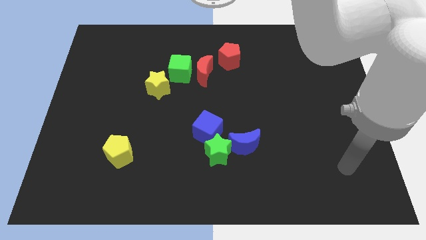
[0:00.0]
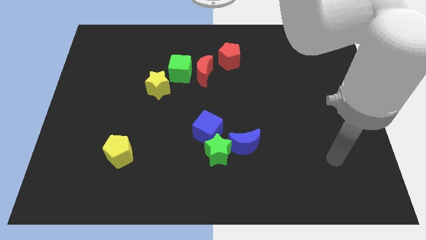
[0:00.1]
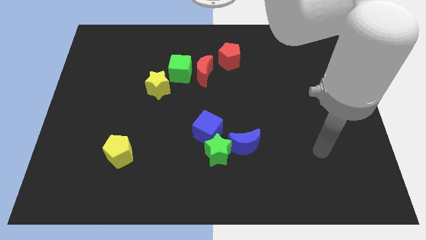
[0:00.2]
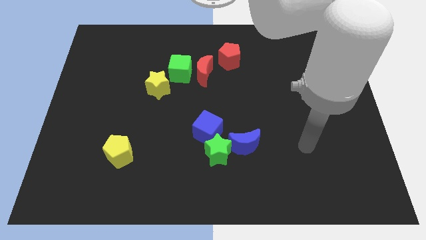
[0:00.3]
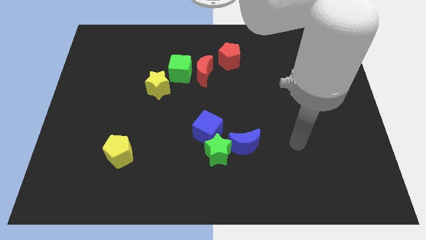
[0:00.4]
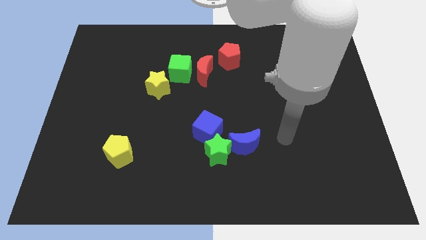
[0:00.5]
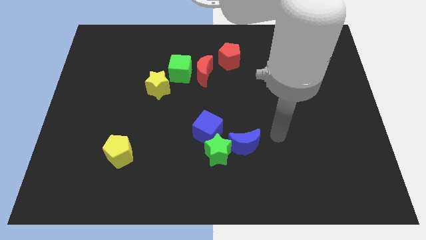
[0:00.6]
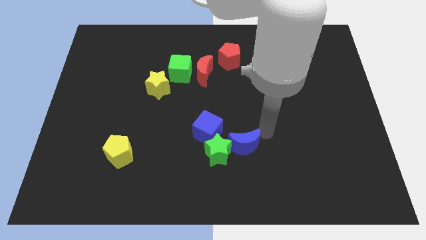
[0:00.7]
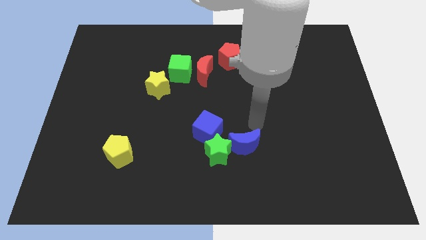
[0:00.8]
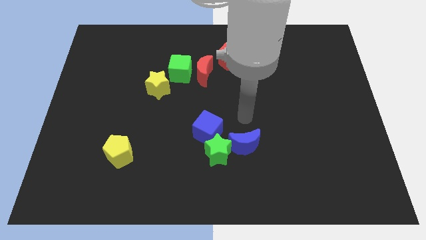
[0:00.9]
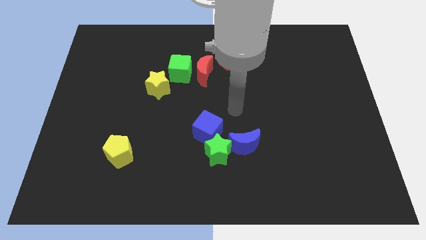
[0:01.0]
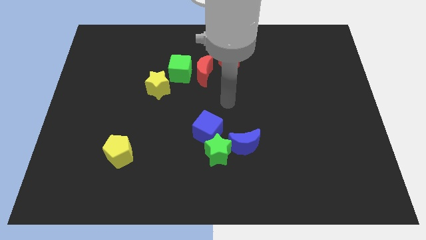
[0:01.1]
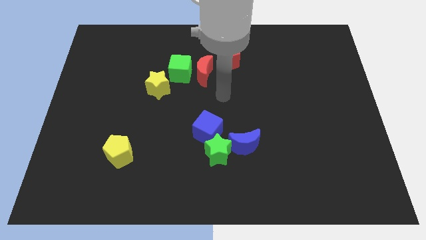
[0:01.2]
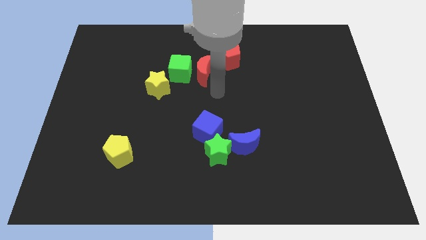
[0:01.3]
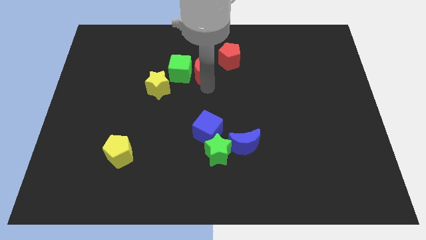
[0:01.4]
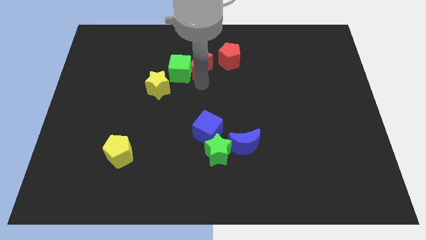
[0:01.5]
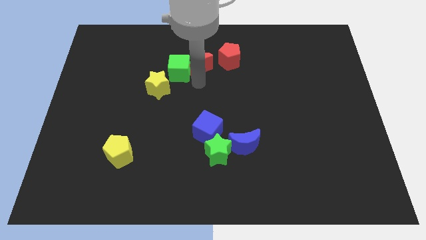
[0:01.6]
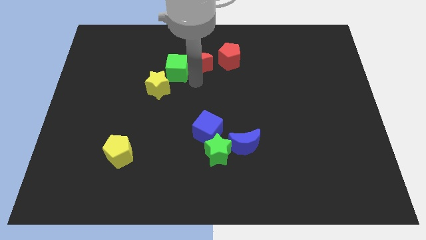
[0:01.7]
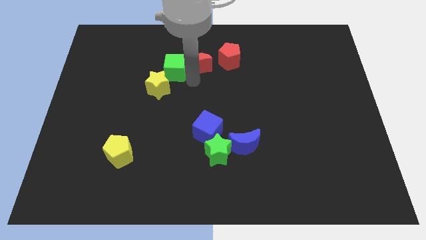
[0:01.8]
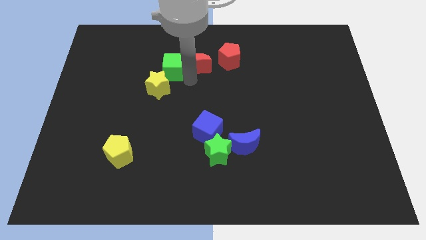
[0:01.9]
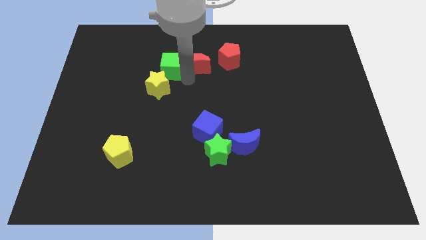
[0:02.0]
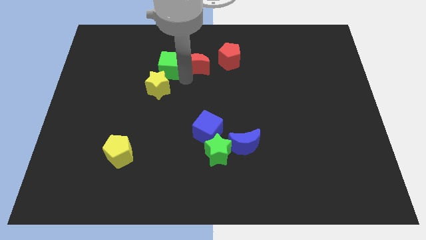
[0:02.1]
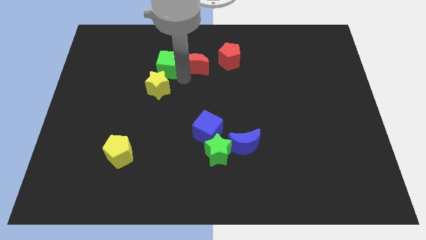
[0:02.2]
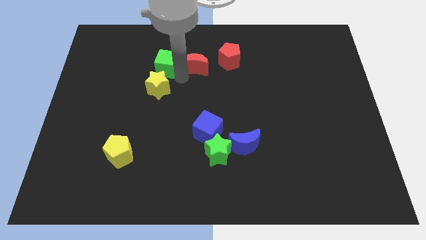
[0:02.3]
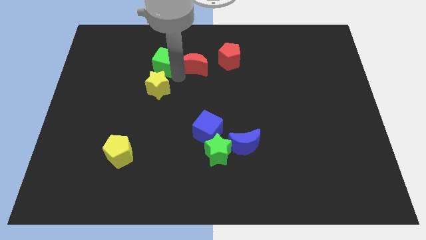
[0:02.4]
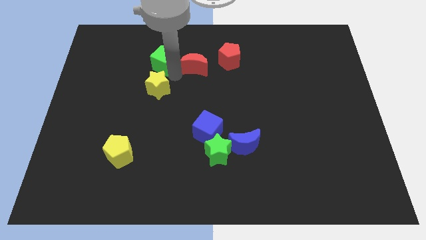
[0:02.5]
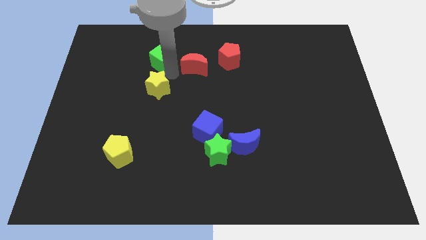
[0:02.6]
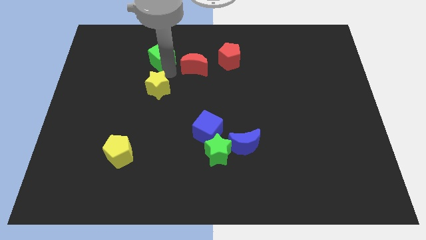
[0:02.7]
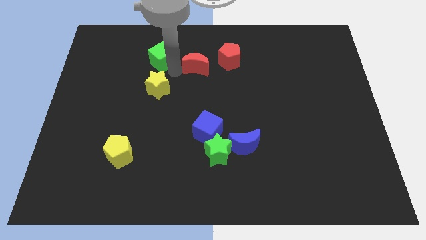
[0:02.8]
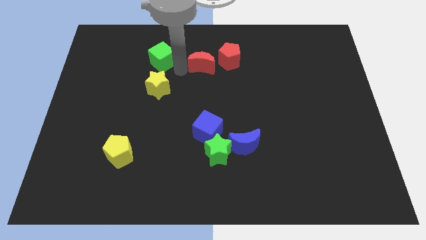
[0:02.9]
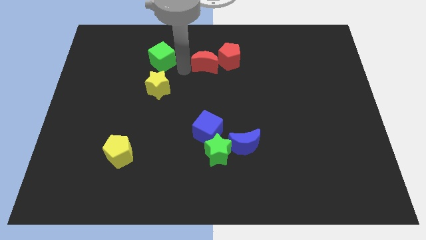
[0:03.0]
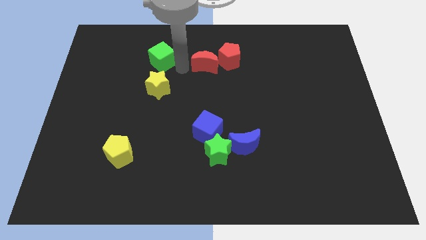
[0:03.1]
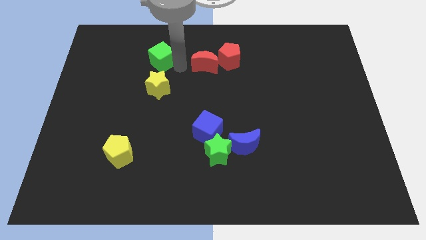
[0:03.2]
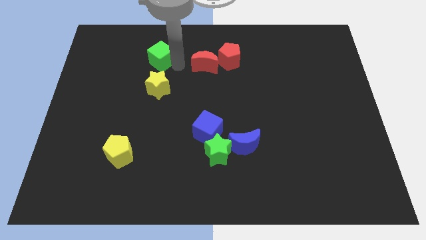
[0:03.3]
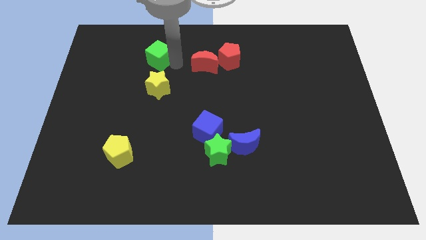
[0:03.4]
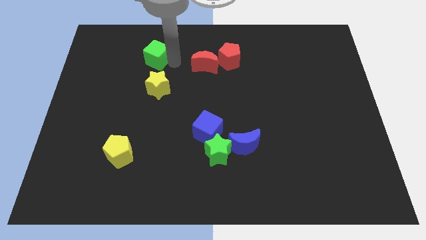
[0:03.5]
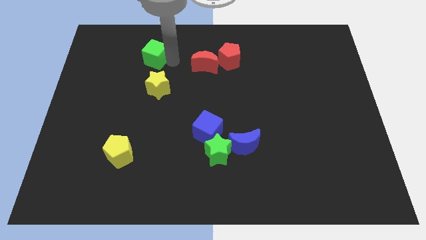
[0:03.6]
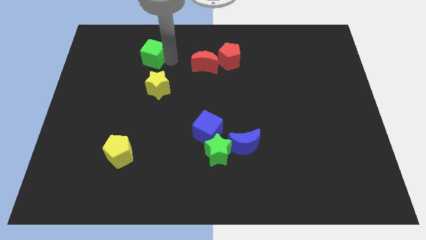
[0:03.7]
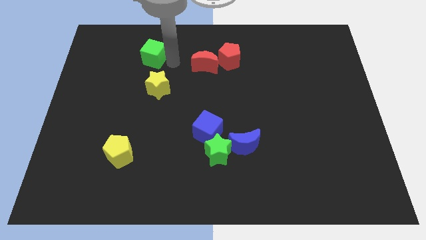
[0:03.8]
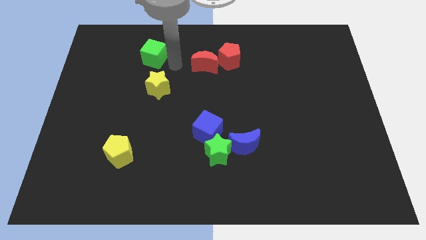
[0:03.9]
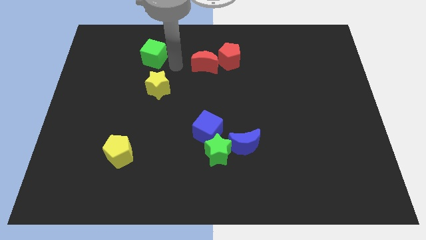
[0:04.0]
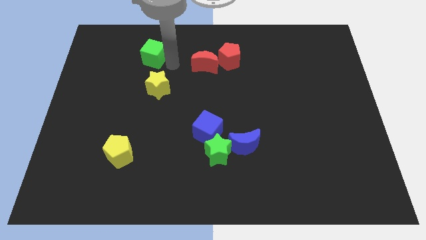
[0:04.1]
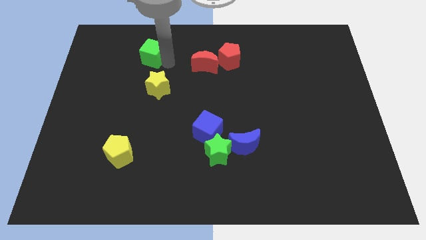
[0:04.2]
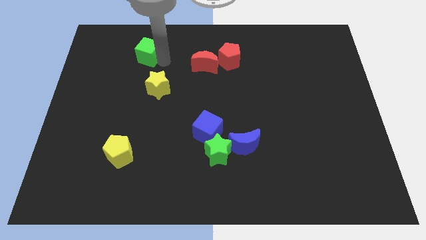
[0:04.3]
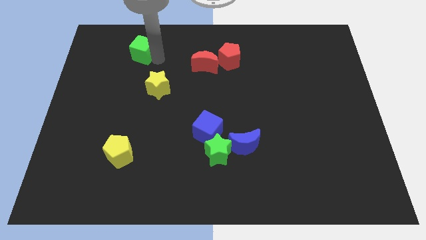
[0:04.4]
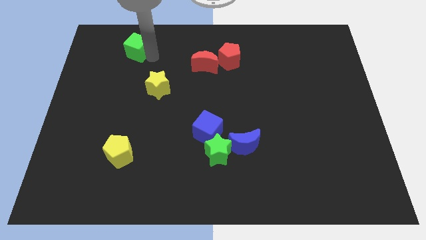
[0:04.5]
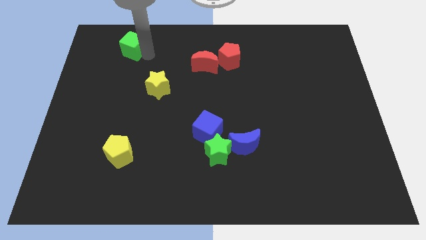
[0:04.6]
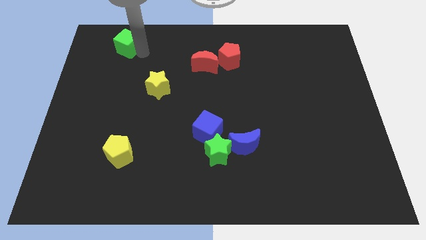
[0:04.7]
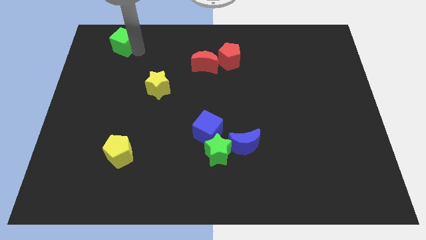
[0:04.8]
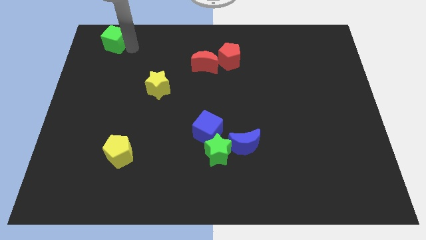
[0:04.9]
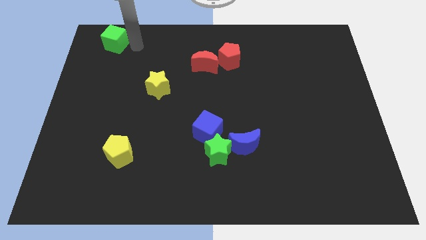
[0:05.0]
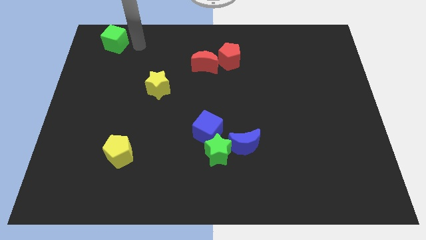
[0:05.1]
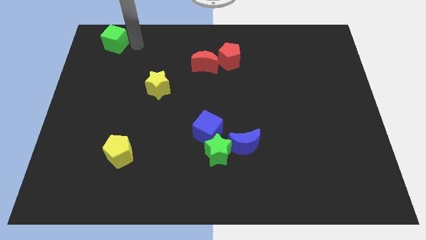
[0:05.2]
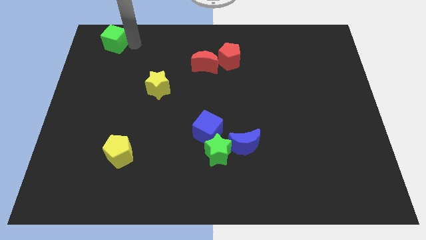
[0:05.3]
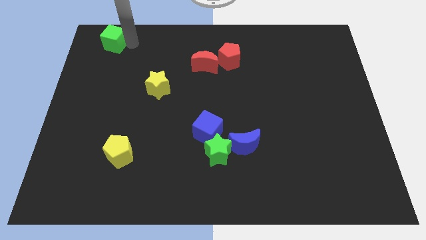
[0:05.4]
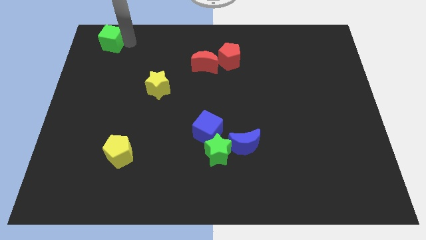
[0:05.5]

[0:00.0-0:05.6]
move the green cube to the upper left corner
